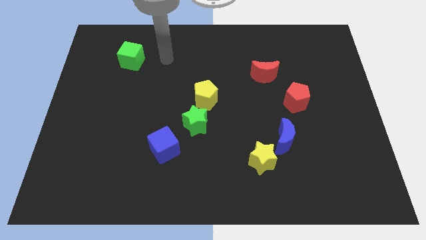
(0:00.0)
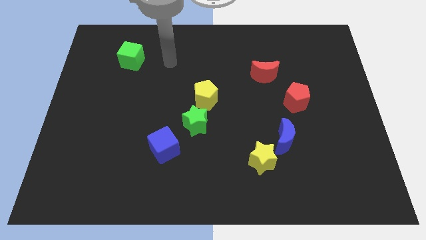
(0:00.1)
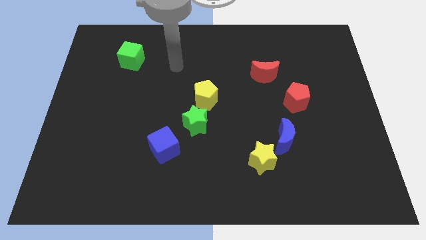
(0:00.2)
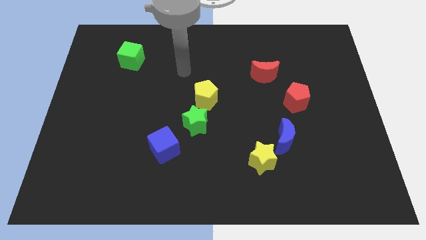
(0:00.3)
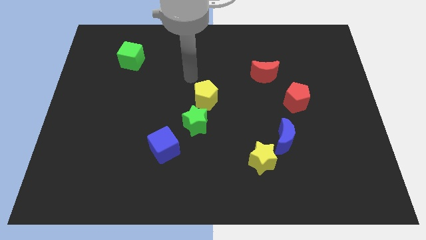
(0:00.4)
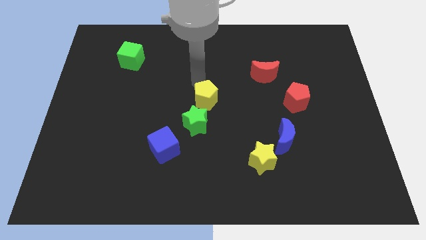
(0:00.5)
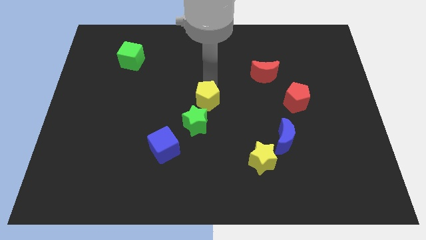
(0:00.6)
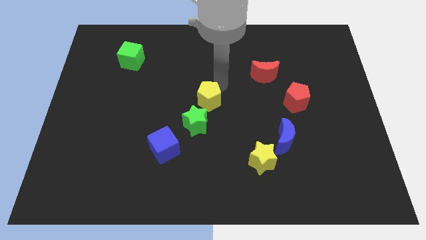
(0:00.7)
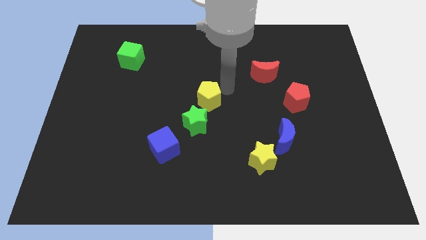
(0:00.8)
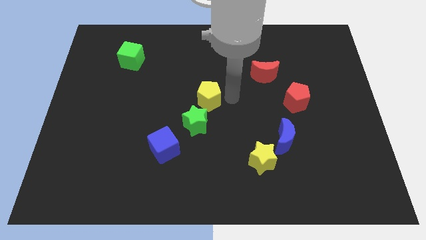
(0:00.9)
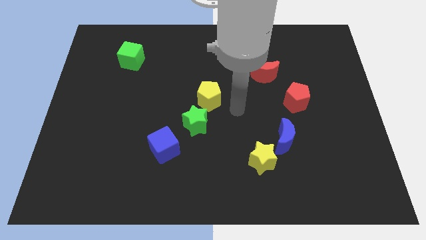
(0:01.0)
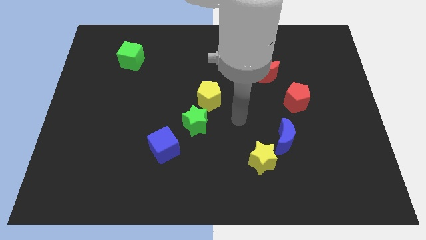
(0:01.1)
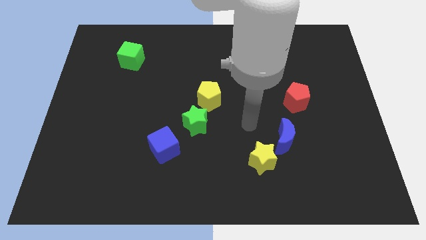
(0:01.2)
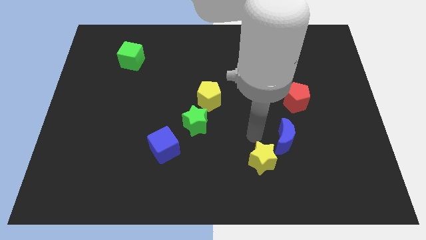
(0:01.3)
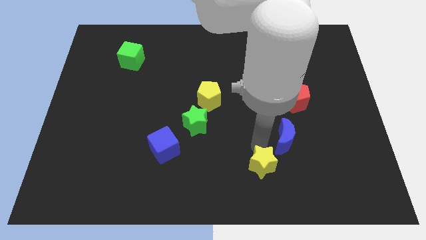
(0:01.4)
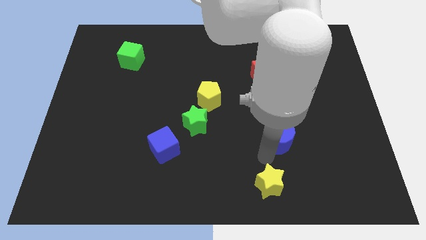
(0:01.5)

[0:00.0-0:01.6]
separate the blue moon from the yellow star

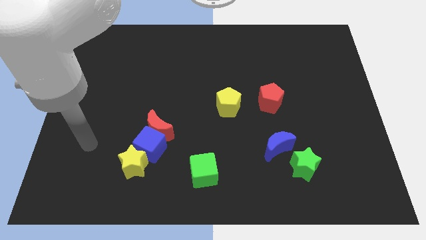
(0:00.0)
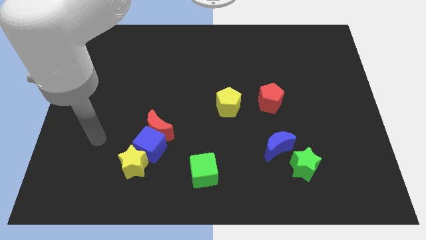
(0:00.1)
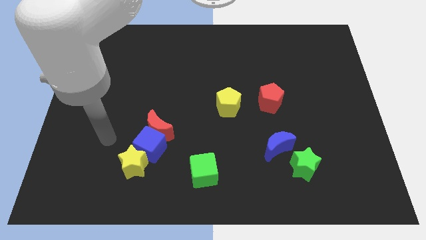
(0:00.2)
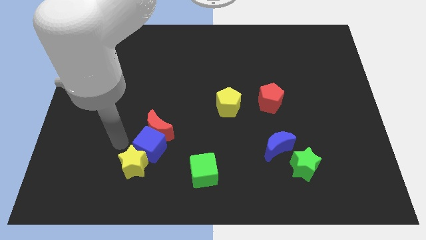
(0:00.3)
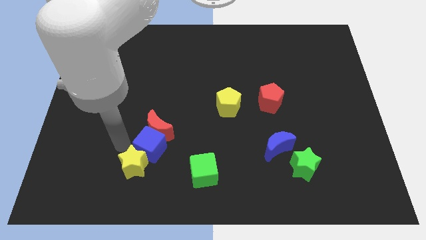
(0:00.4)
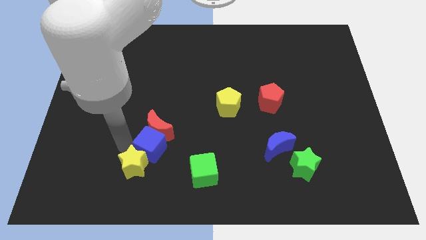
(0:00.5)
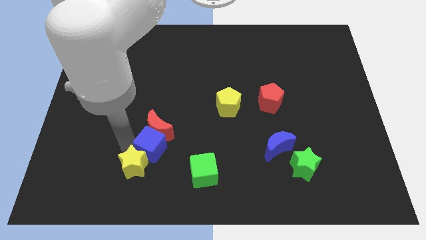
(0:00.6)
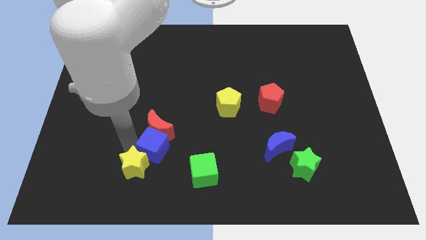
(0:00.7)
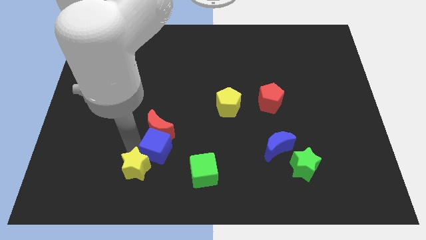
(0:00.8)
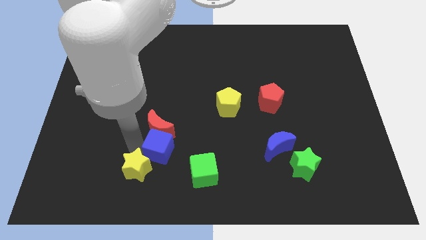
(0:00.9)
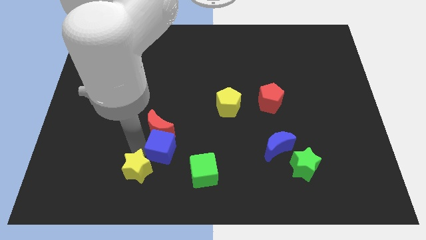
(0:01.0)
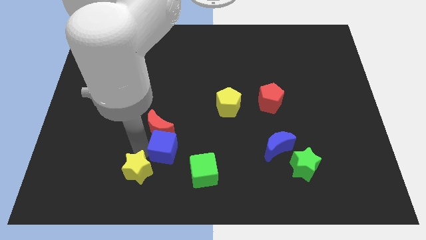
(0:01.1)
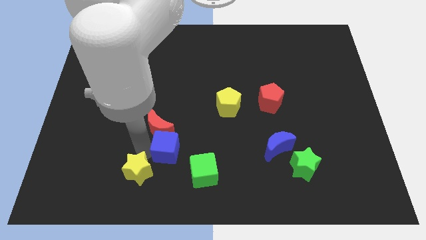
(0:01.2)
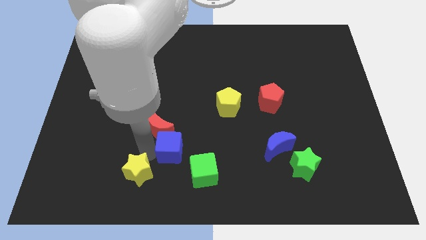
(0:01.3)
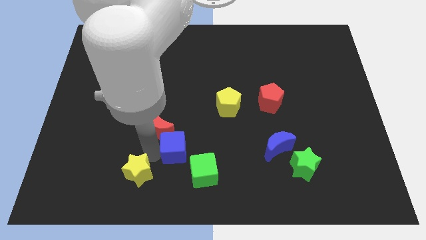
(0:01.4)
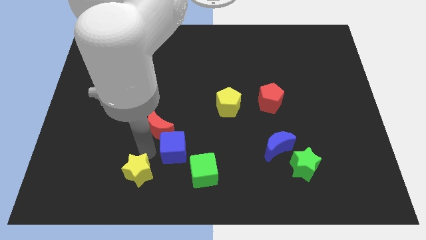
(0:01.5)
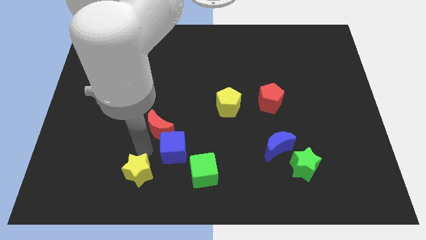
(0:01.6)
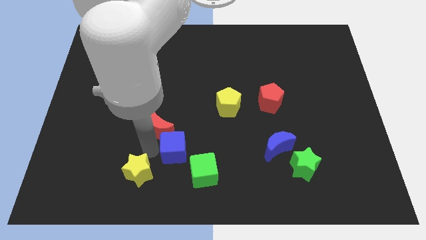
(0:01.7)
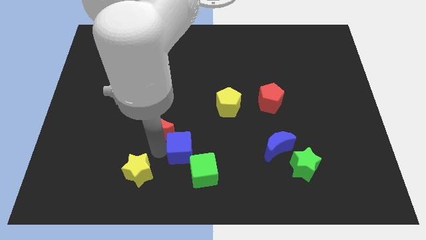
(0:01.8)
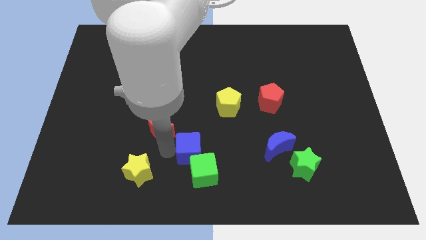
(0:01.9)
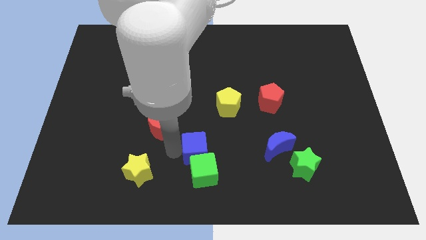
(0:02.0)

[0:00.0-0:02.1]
pull the blue cube apart from the red moon and yellow star

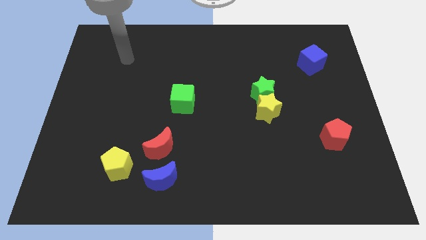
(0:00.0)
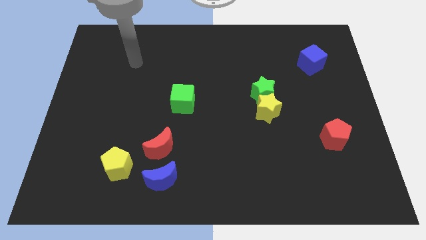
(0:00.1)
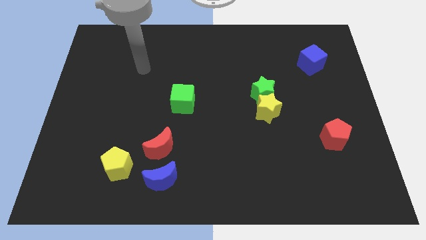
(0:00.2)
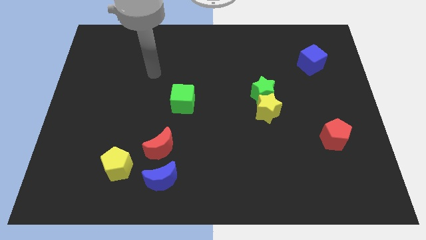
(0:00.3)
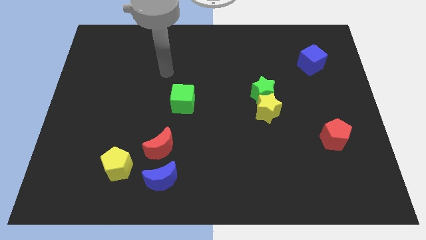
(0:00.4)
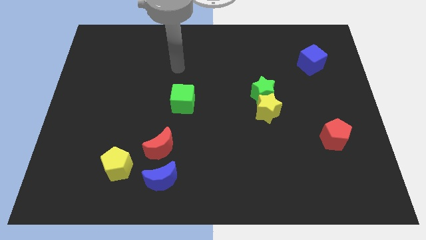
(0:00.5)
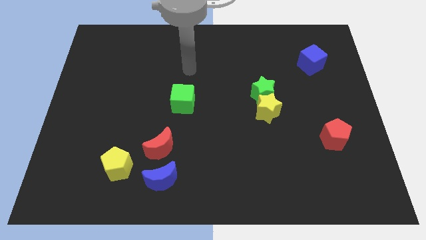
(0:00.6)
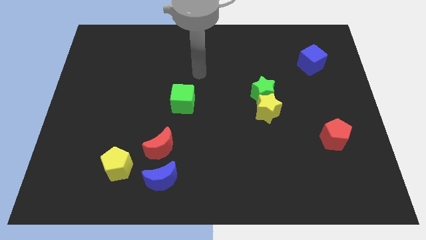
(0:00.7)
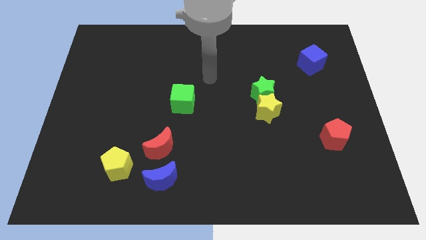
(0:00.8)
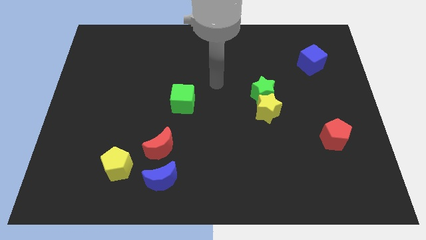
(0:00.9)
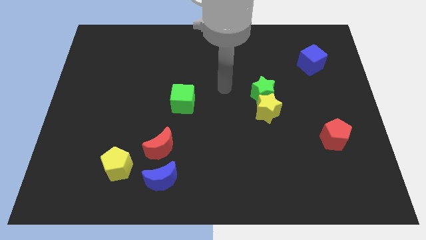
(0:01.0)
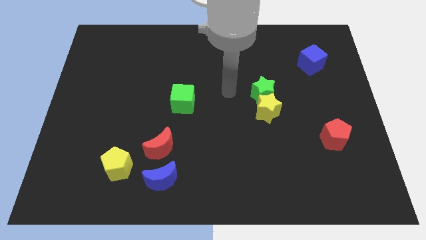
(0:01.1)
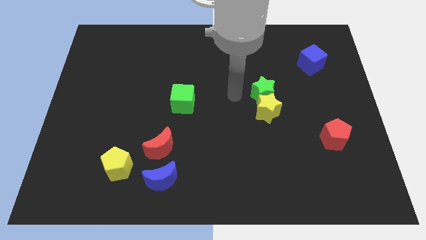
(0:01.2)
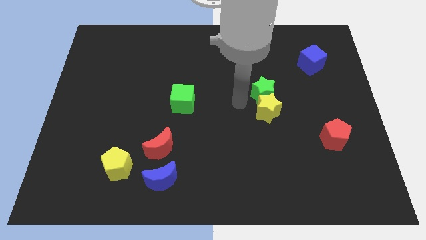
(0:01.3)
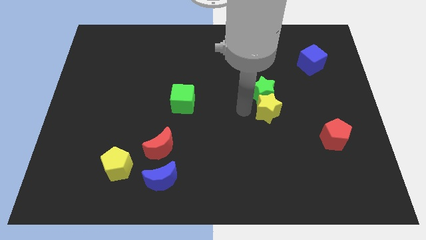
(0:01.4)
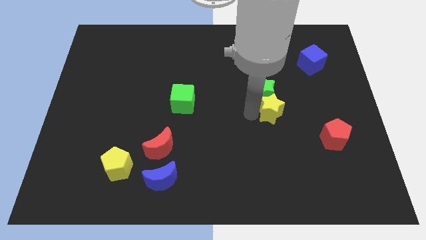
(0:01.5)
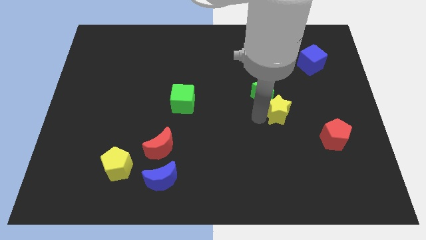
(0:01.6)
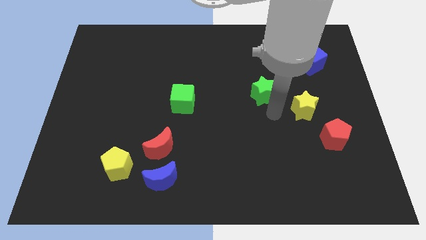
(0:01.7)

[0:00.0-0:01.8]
pull the green star apart from the yellow star

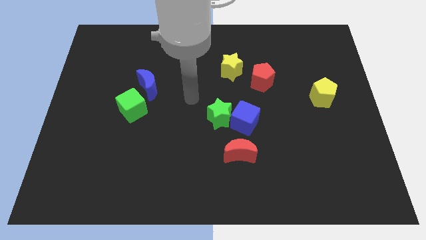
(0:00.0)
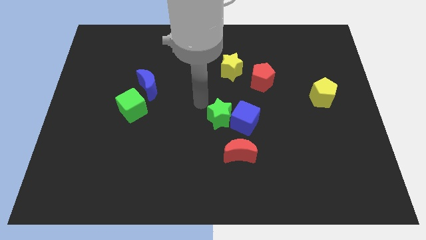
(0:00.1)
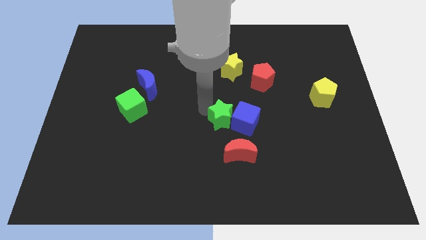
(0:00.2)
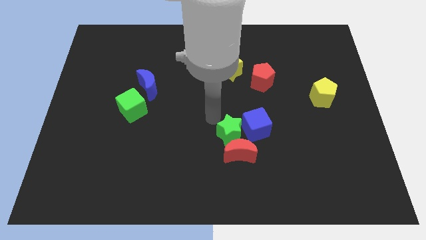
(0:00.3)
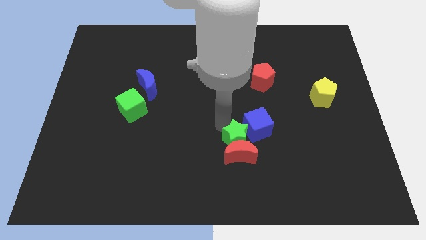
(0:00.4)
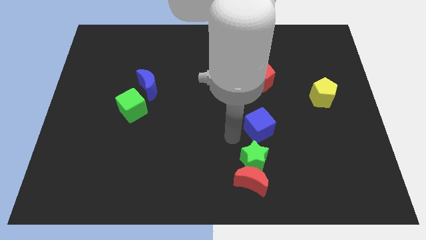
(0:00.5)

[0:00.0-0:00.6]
pull the blue cube apart from the green star and red moon

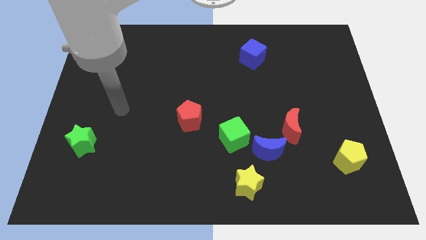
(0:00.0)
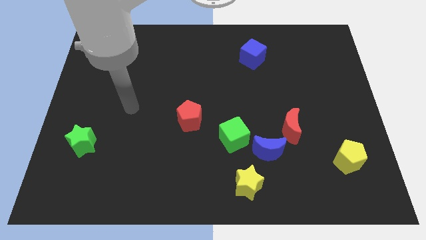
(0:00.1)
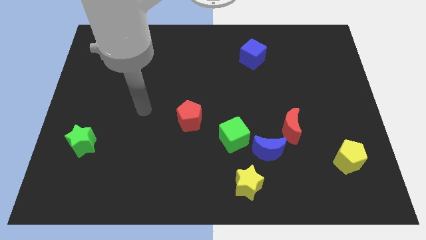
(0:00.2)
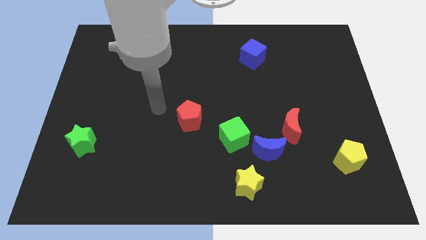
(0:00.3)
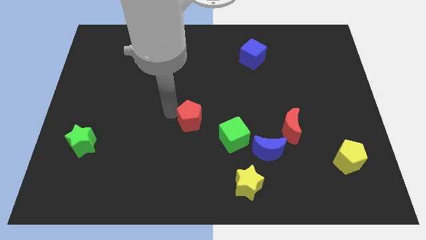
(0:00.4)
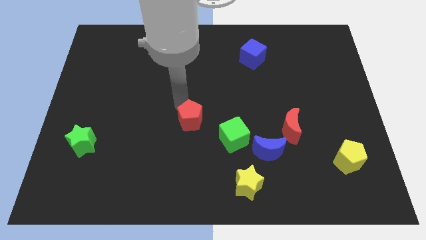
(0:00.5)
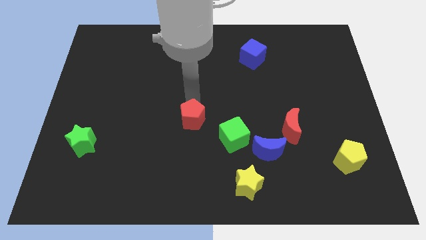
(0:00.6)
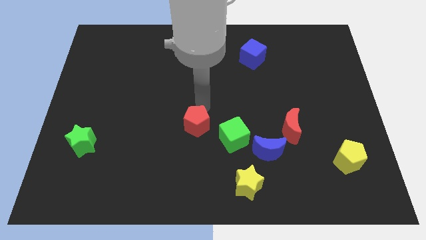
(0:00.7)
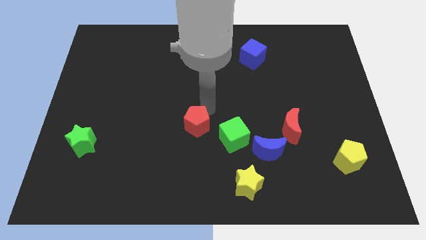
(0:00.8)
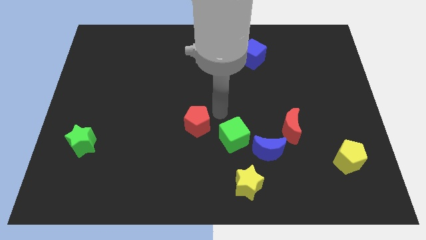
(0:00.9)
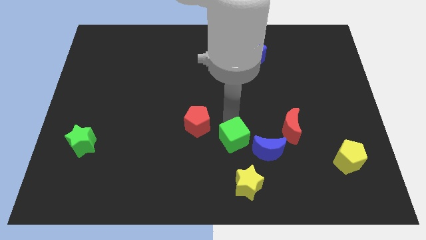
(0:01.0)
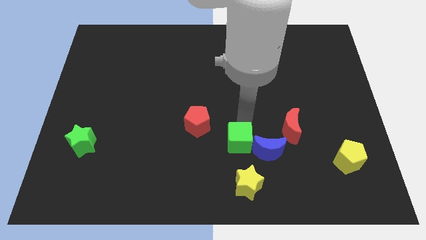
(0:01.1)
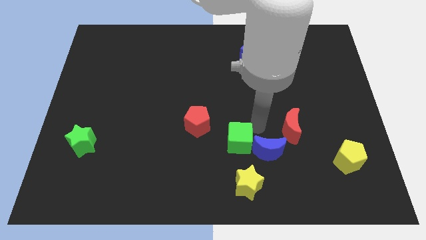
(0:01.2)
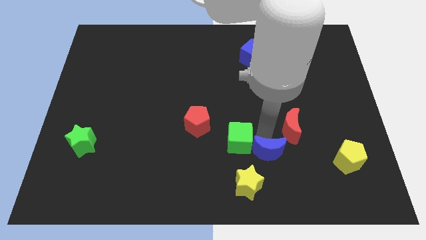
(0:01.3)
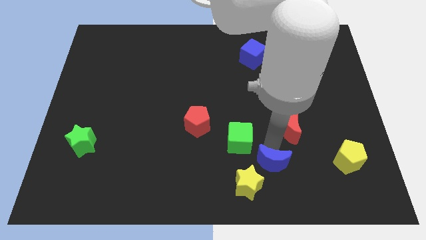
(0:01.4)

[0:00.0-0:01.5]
pull the red moon apart from the blue moon

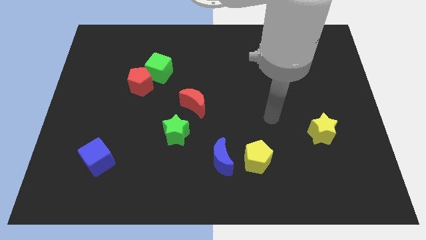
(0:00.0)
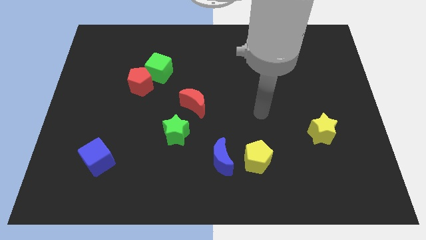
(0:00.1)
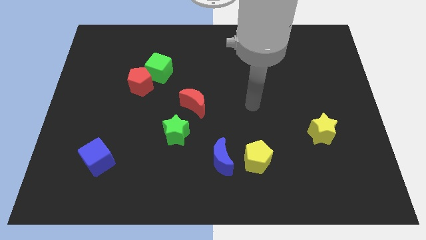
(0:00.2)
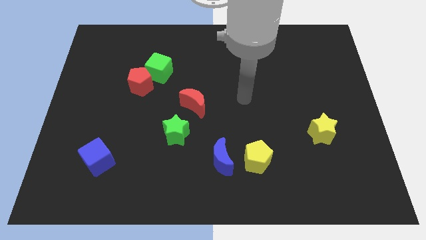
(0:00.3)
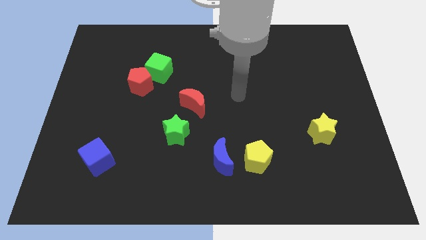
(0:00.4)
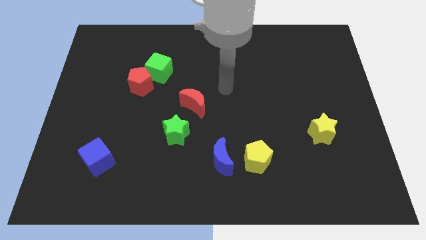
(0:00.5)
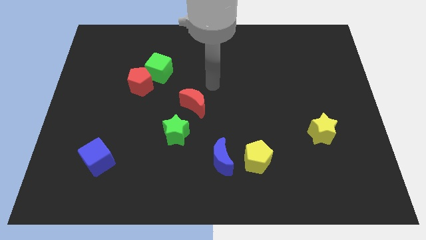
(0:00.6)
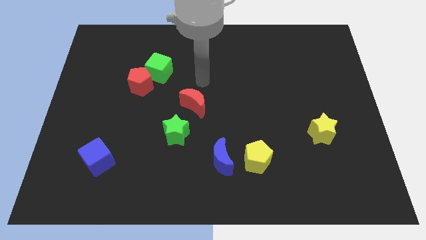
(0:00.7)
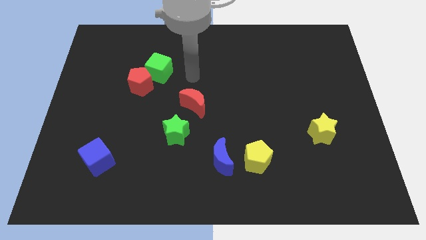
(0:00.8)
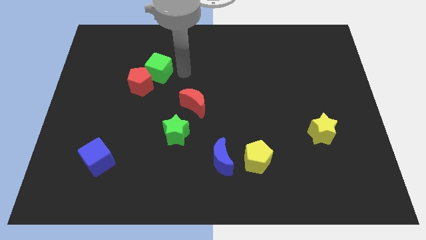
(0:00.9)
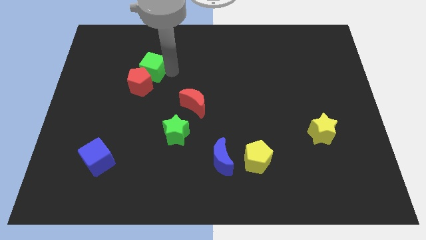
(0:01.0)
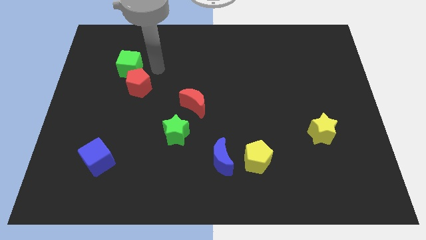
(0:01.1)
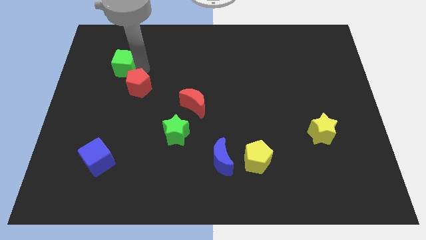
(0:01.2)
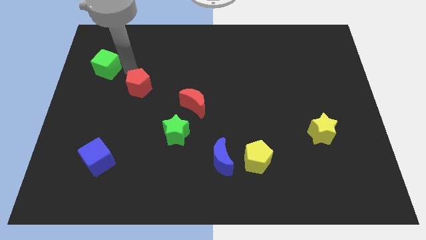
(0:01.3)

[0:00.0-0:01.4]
separate the red pentagon from the green cube

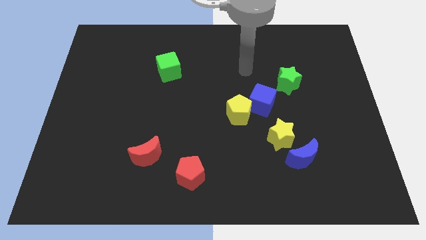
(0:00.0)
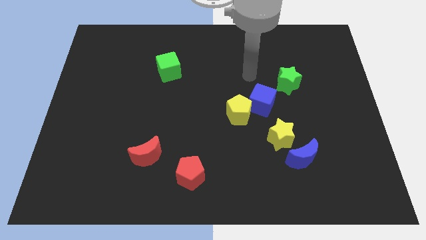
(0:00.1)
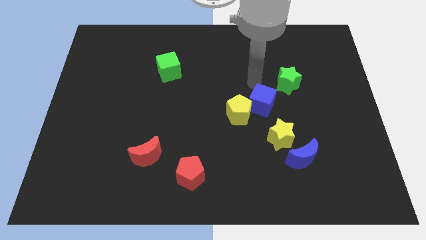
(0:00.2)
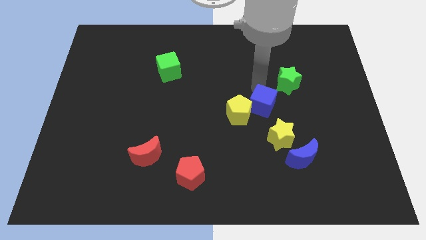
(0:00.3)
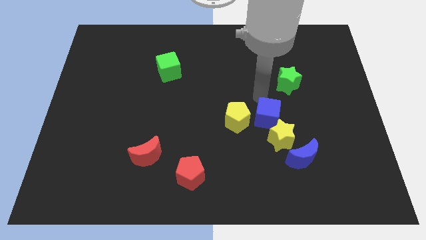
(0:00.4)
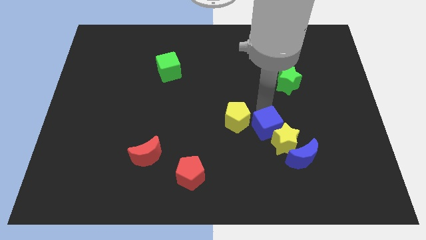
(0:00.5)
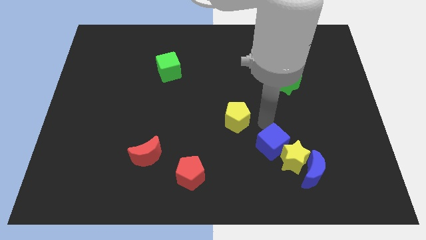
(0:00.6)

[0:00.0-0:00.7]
separate the yellow pentagon from the blue cube
